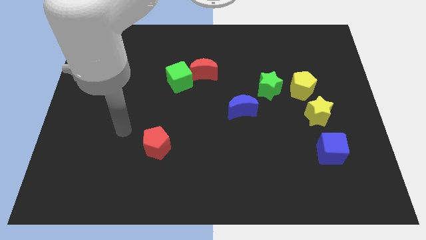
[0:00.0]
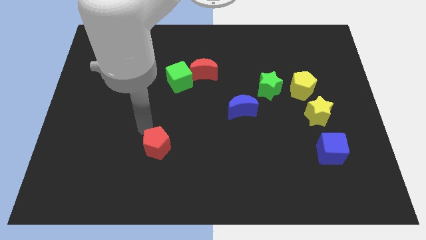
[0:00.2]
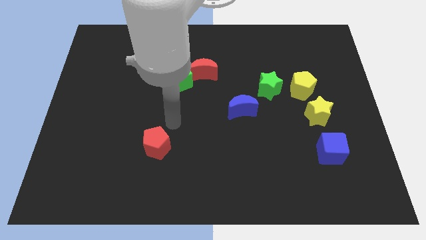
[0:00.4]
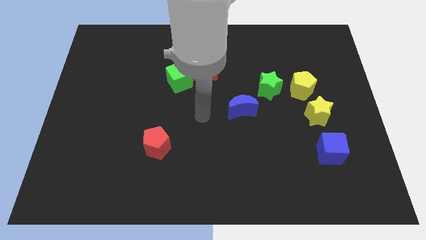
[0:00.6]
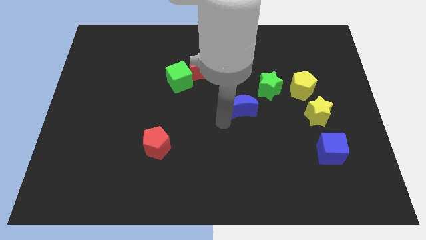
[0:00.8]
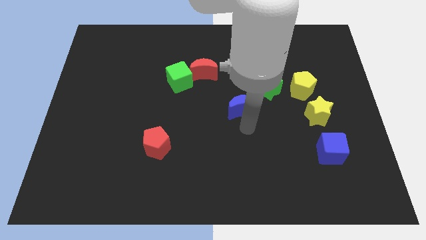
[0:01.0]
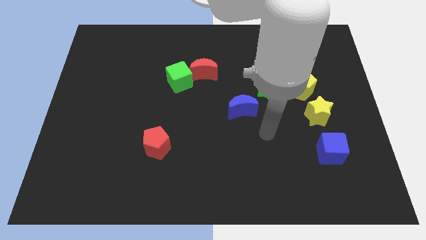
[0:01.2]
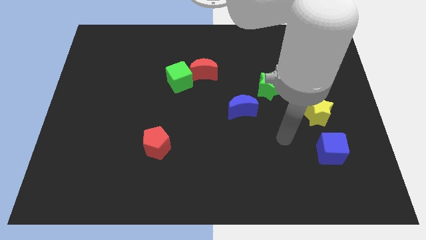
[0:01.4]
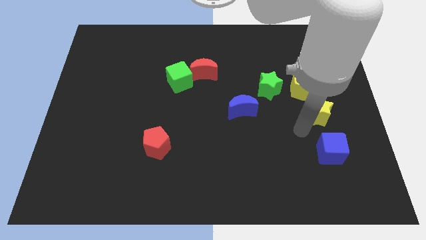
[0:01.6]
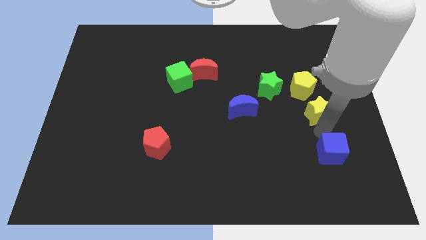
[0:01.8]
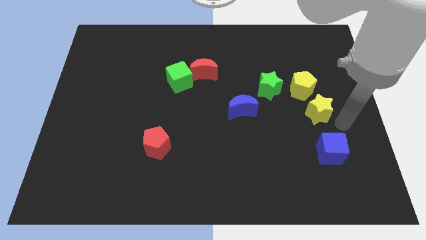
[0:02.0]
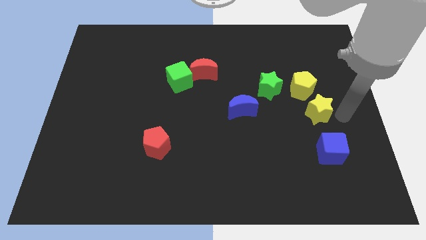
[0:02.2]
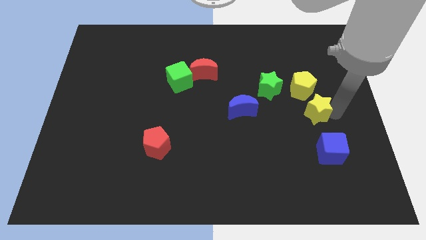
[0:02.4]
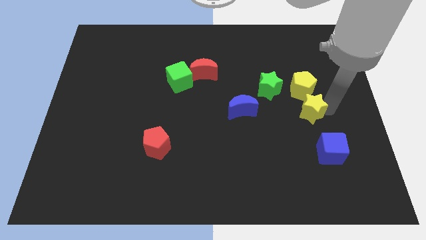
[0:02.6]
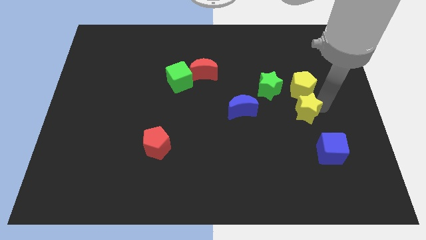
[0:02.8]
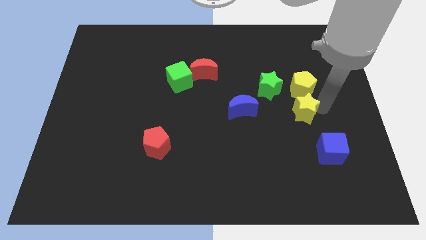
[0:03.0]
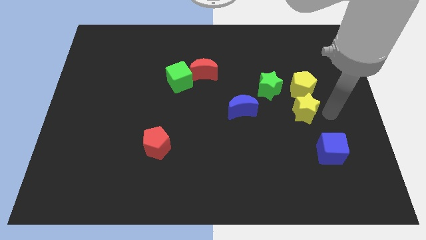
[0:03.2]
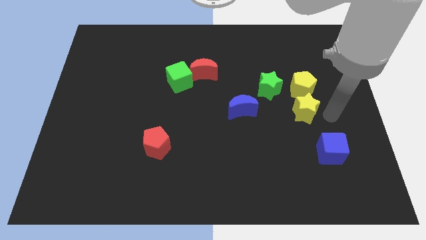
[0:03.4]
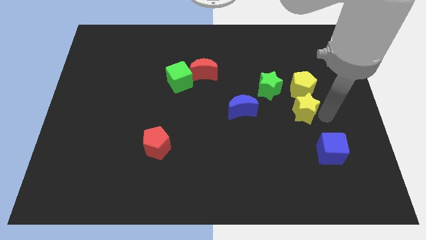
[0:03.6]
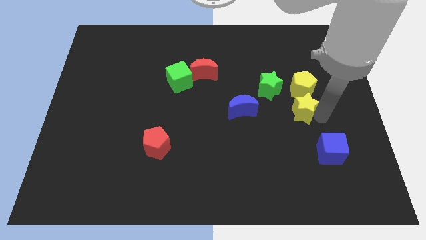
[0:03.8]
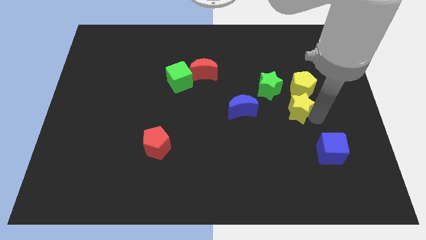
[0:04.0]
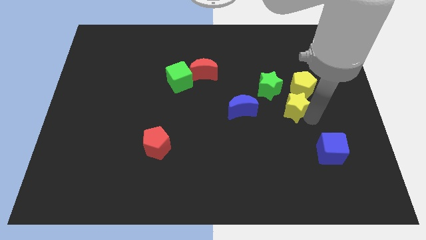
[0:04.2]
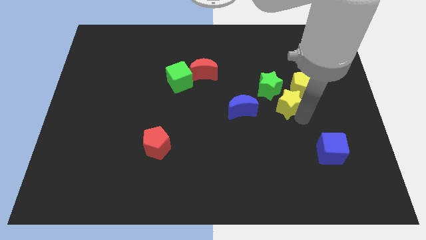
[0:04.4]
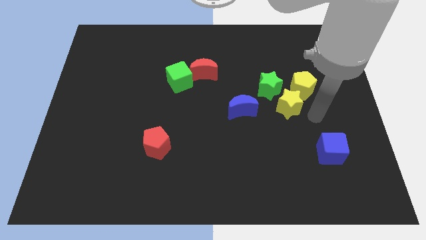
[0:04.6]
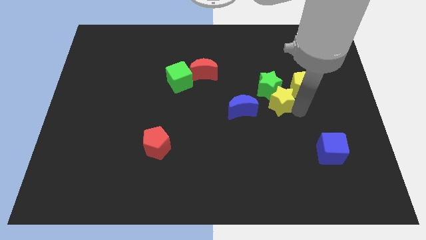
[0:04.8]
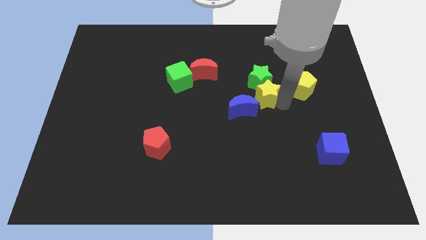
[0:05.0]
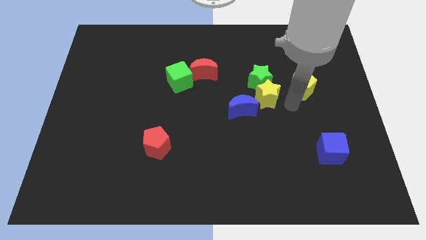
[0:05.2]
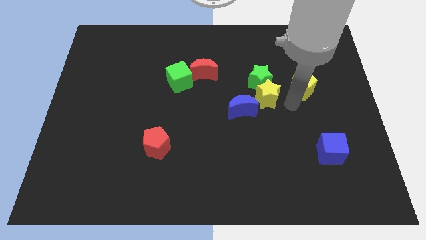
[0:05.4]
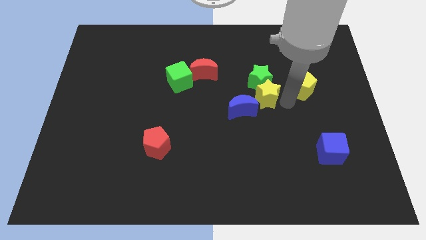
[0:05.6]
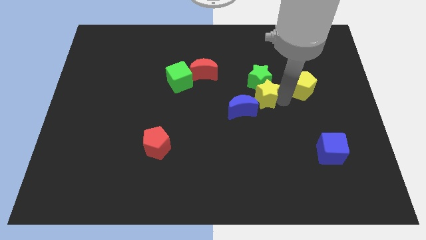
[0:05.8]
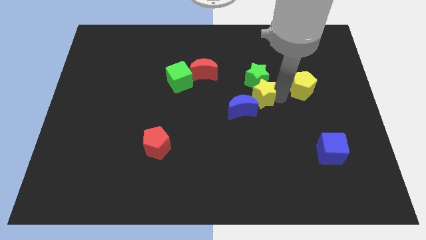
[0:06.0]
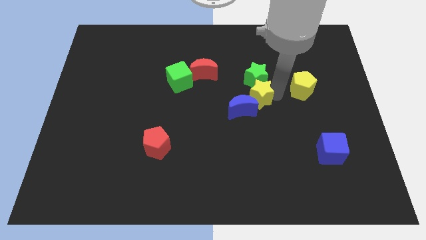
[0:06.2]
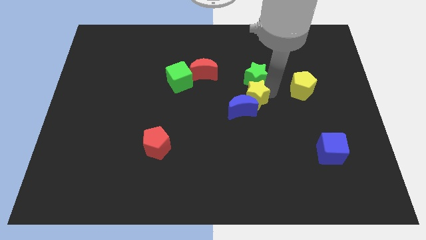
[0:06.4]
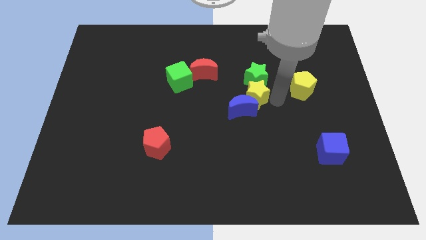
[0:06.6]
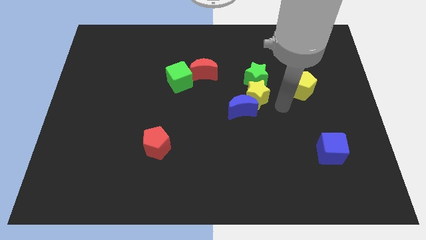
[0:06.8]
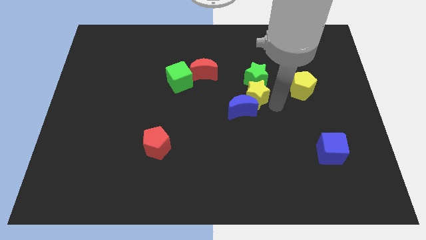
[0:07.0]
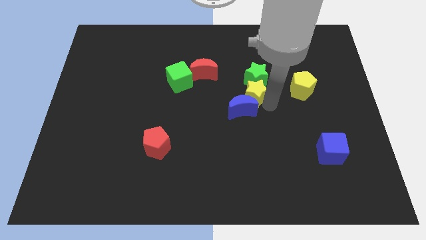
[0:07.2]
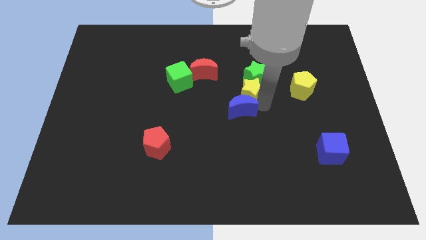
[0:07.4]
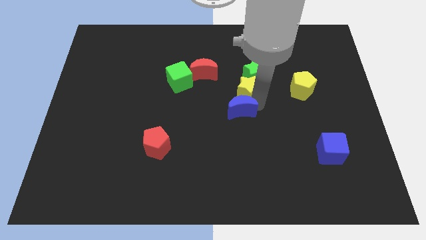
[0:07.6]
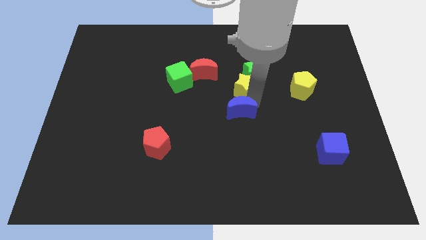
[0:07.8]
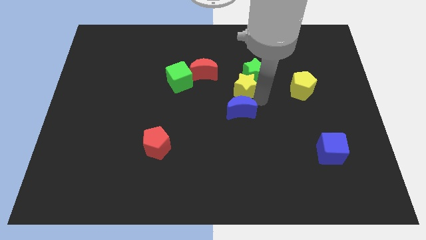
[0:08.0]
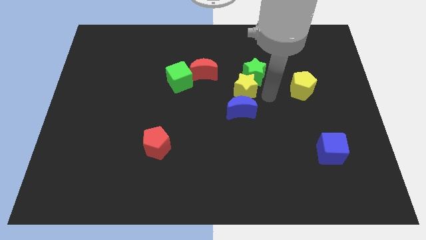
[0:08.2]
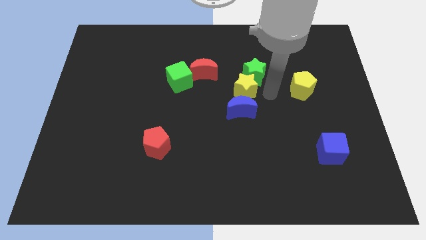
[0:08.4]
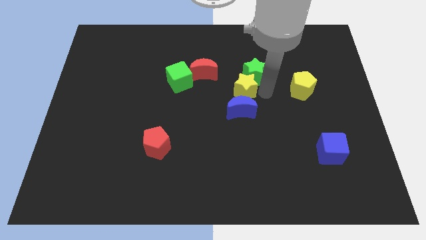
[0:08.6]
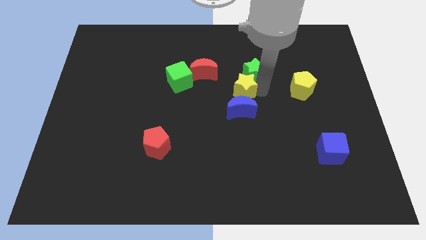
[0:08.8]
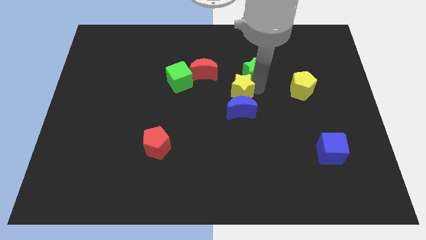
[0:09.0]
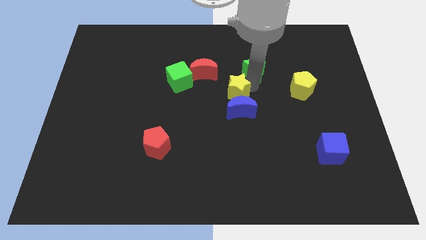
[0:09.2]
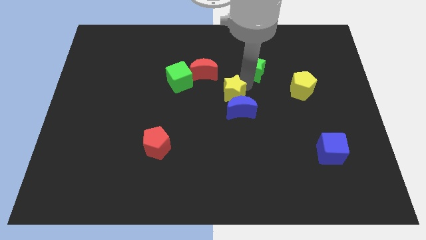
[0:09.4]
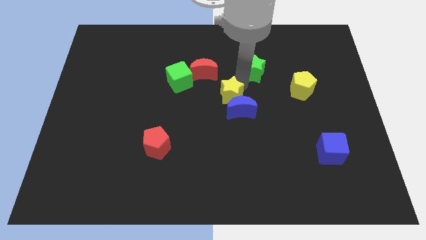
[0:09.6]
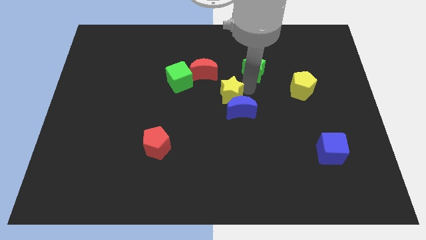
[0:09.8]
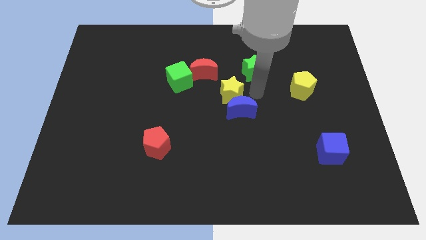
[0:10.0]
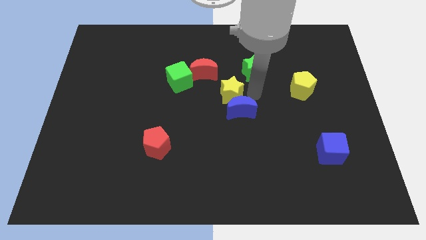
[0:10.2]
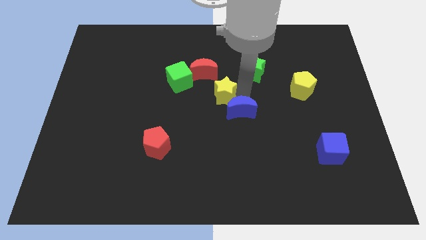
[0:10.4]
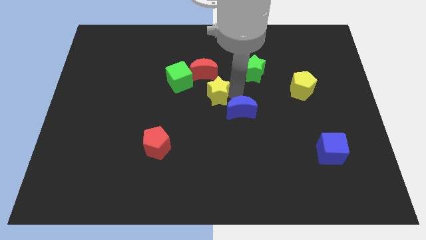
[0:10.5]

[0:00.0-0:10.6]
slide the yellow star to the bottom right of the green cube

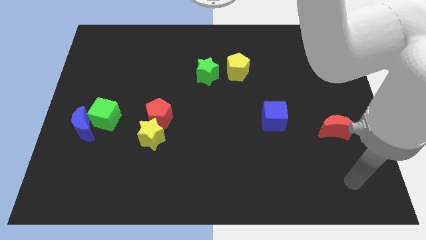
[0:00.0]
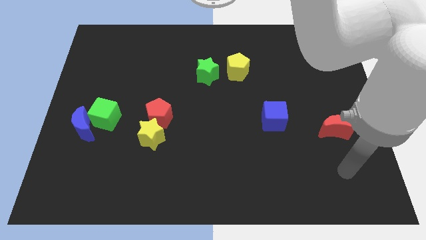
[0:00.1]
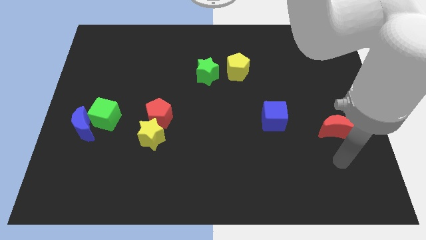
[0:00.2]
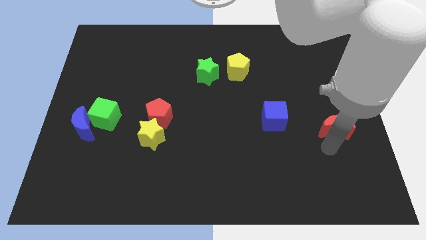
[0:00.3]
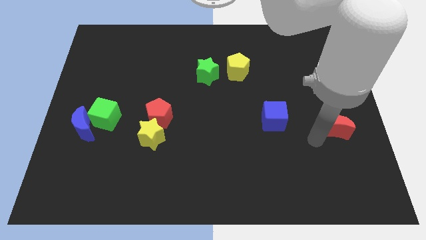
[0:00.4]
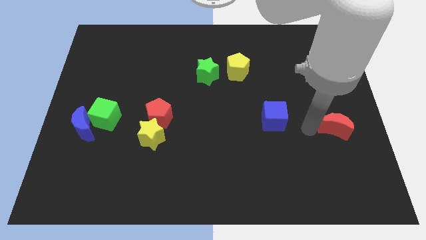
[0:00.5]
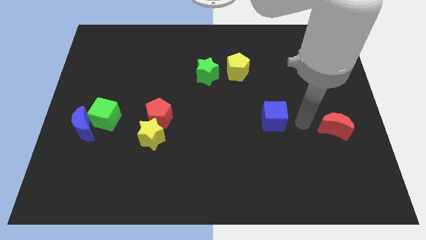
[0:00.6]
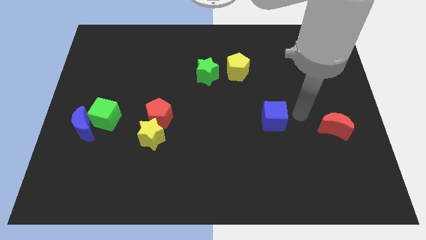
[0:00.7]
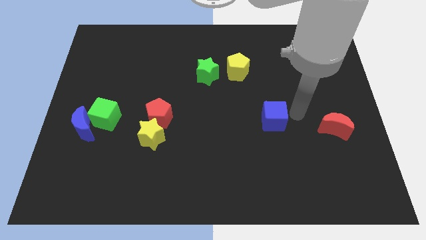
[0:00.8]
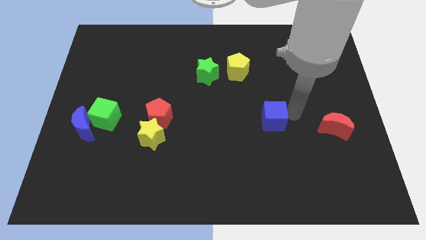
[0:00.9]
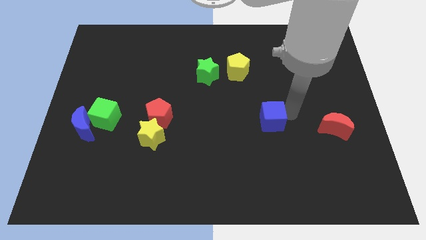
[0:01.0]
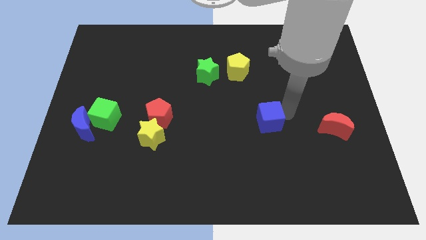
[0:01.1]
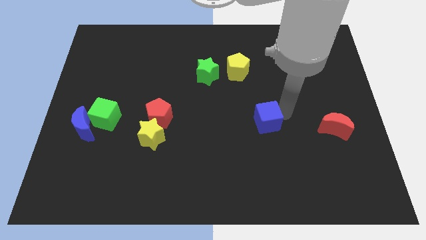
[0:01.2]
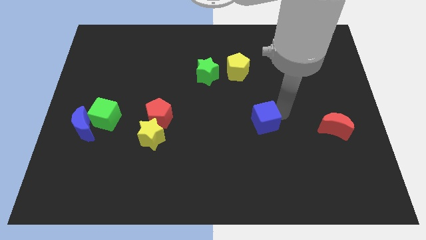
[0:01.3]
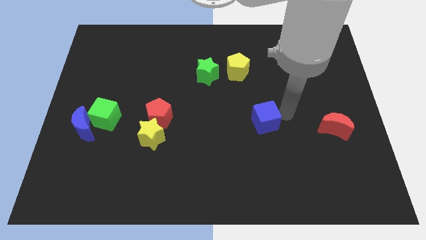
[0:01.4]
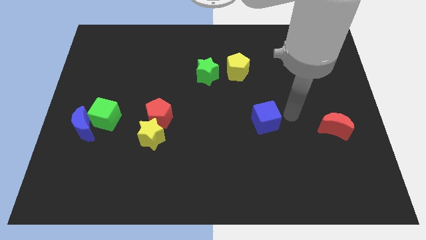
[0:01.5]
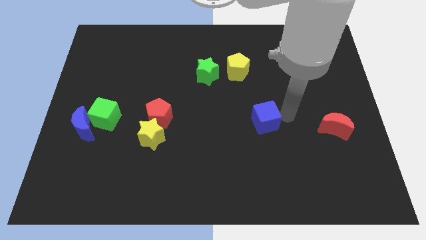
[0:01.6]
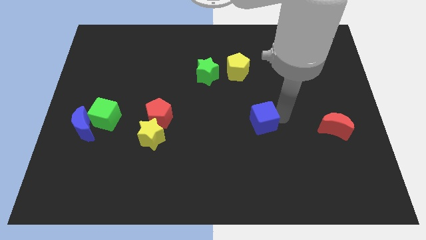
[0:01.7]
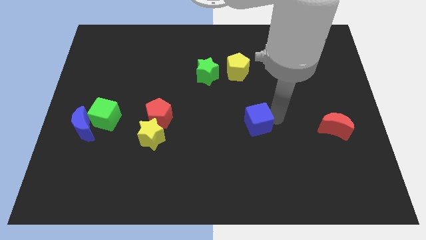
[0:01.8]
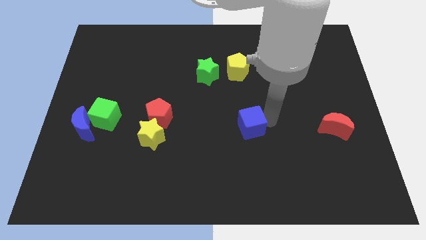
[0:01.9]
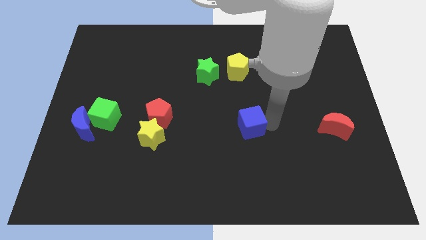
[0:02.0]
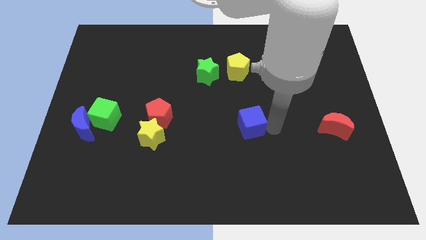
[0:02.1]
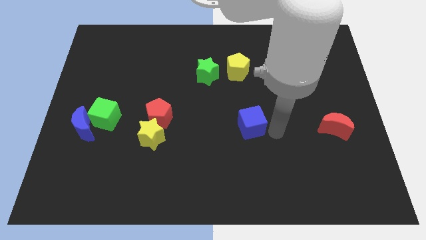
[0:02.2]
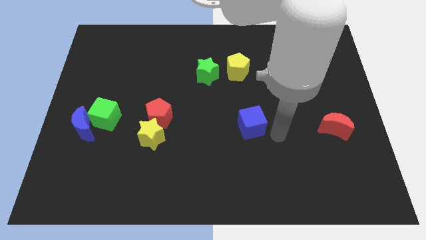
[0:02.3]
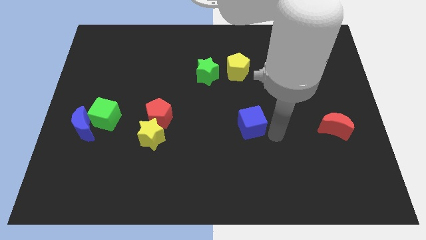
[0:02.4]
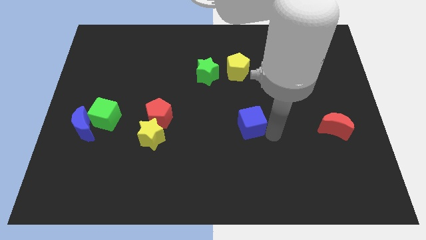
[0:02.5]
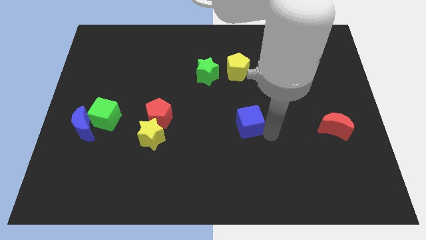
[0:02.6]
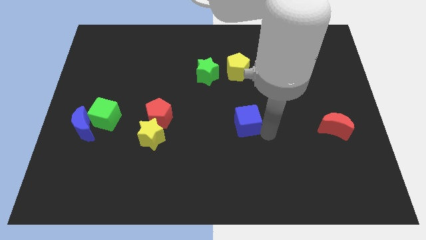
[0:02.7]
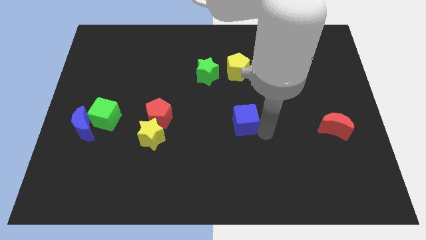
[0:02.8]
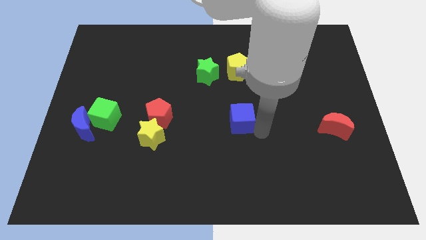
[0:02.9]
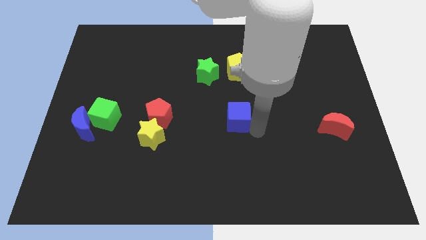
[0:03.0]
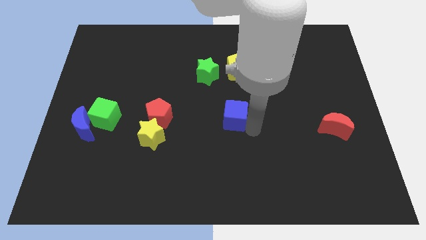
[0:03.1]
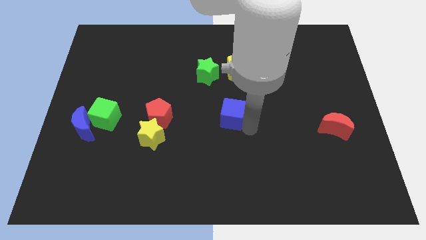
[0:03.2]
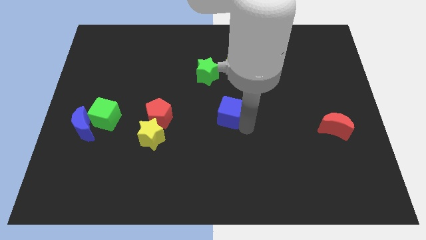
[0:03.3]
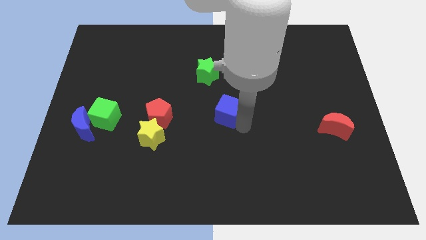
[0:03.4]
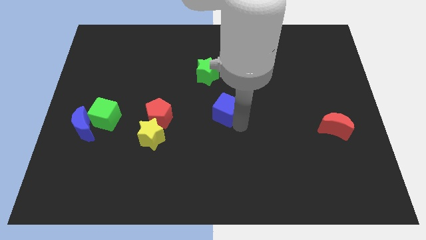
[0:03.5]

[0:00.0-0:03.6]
put the blue cube to the bottom of the green star
